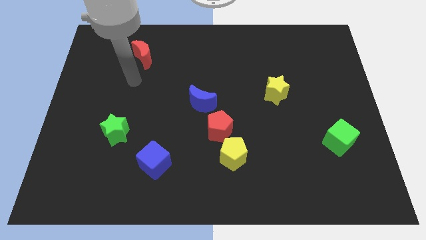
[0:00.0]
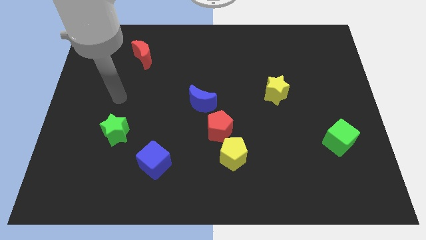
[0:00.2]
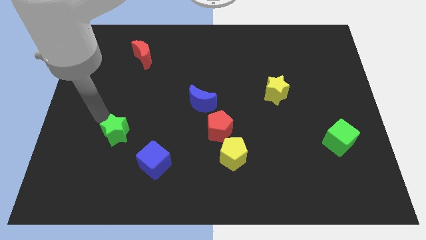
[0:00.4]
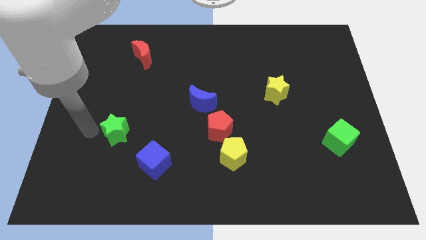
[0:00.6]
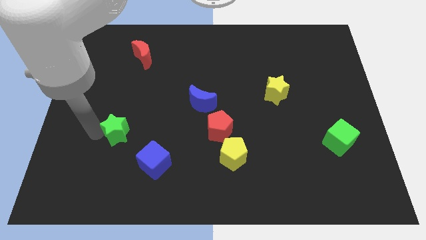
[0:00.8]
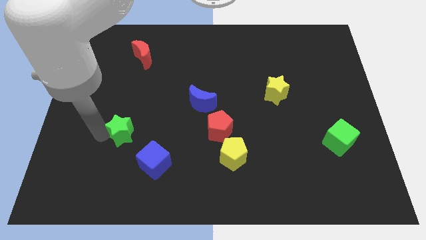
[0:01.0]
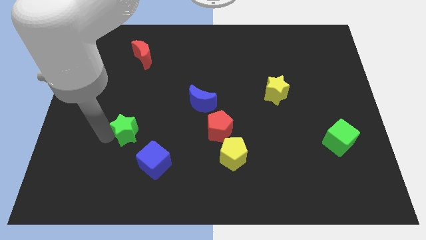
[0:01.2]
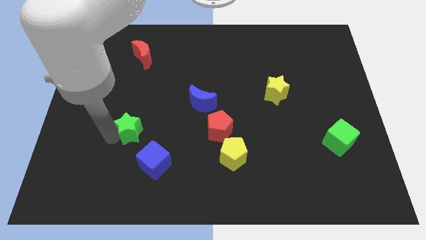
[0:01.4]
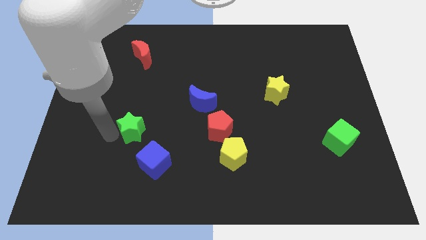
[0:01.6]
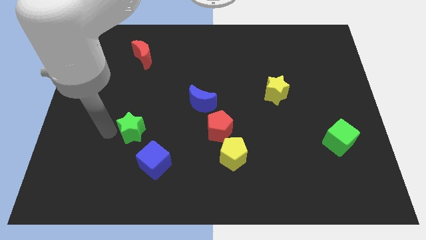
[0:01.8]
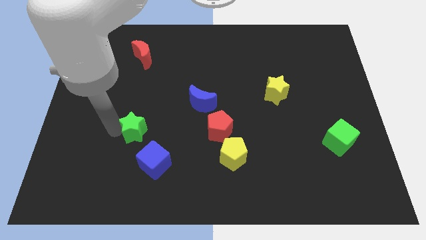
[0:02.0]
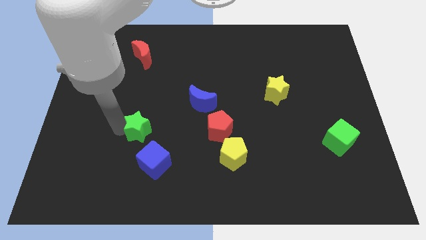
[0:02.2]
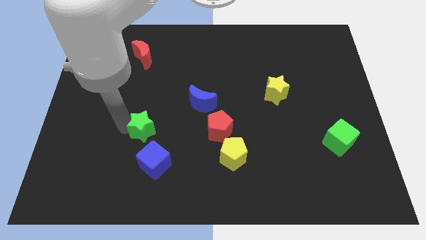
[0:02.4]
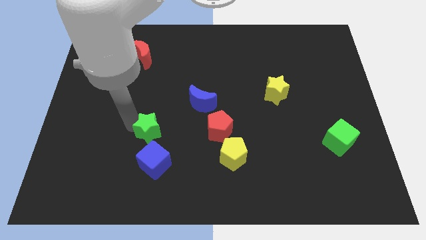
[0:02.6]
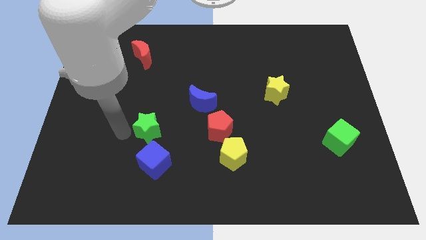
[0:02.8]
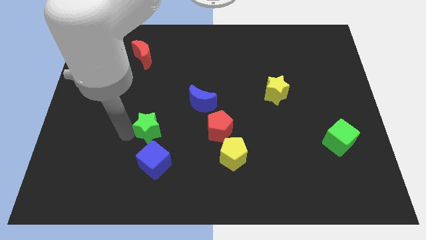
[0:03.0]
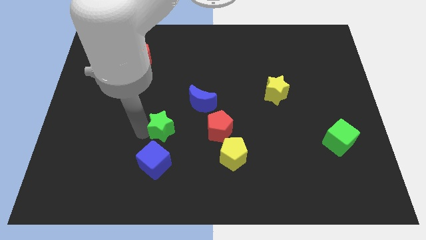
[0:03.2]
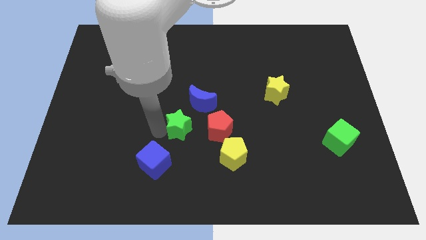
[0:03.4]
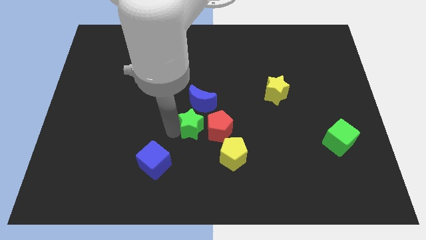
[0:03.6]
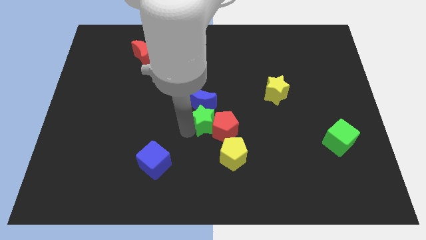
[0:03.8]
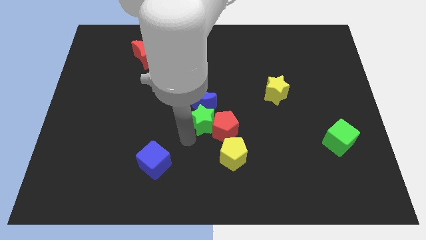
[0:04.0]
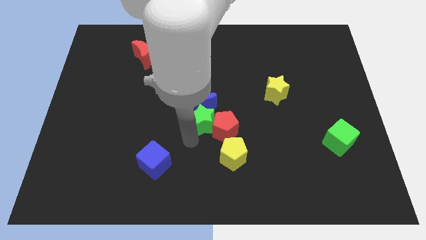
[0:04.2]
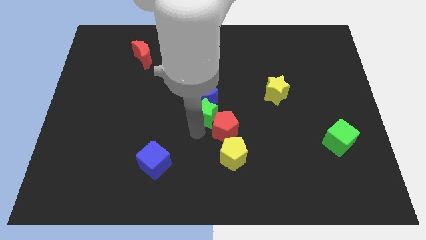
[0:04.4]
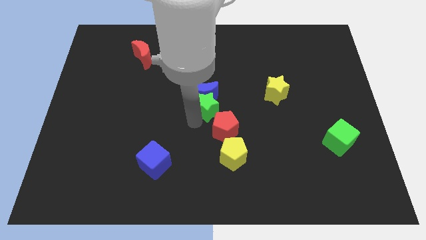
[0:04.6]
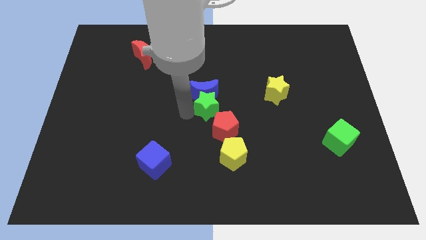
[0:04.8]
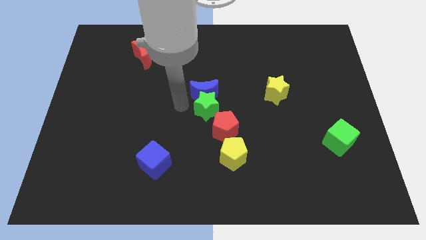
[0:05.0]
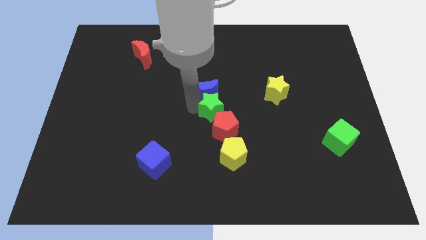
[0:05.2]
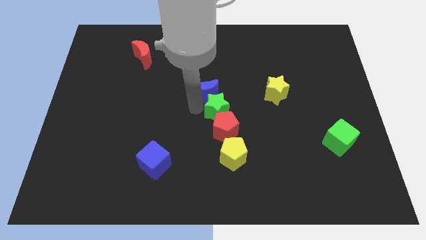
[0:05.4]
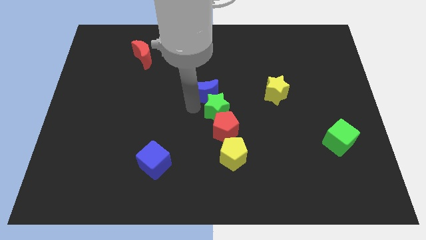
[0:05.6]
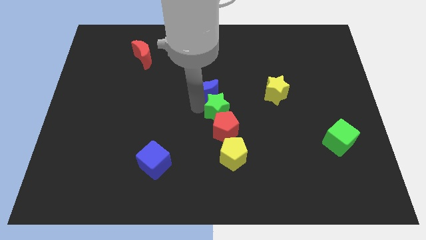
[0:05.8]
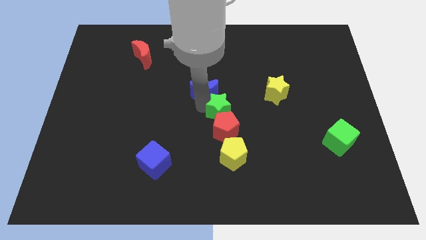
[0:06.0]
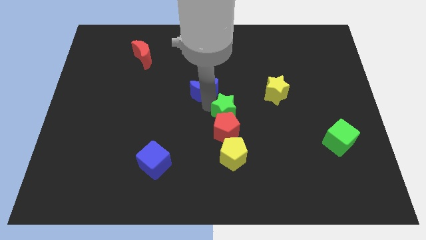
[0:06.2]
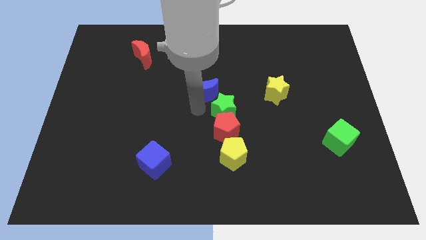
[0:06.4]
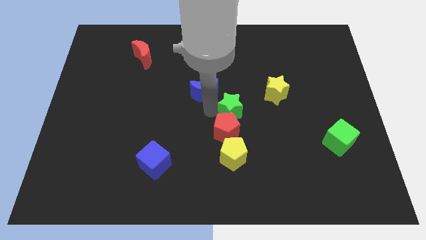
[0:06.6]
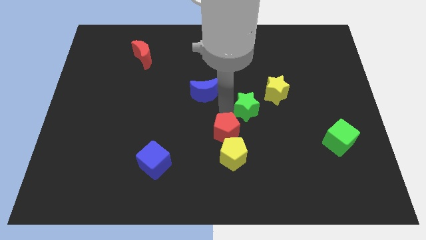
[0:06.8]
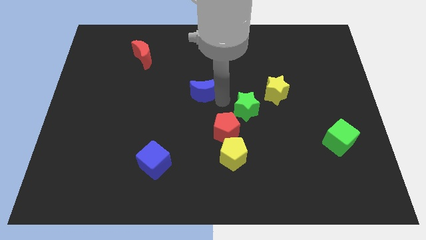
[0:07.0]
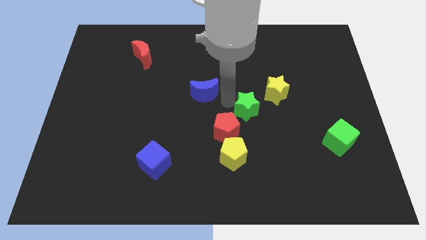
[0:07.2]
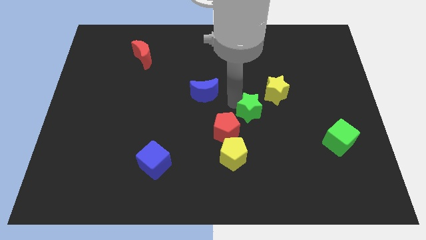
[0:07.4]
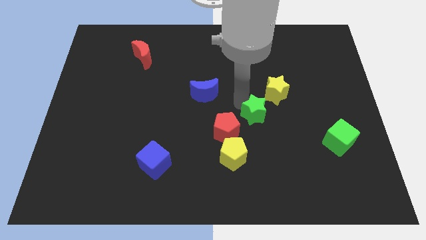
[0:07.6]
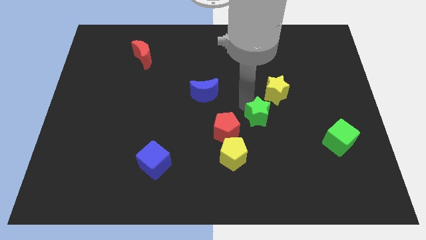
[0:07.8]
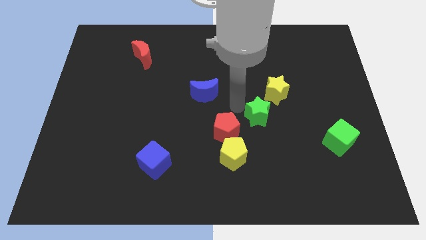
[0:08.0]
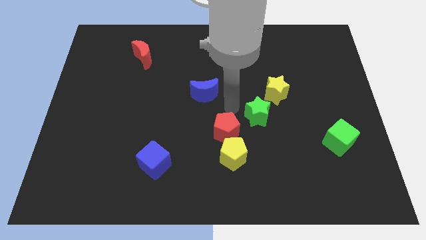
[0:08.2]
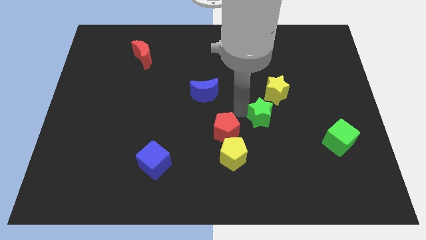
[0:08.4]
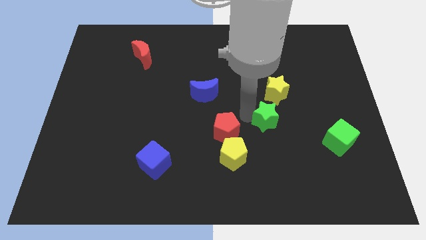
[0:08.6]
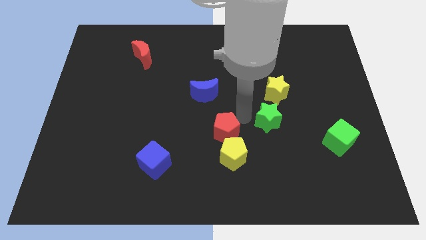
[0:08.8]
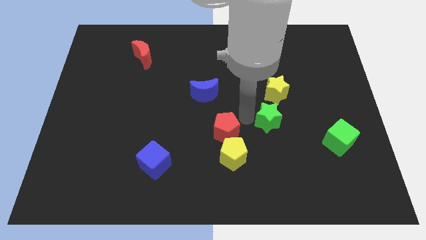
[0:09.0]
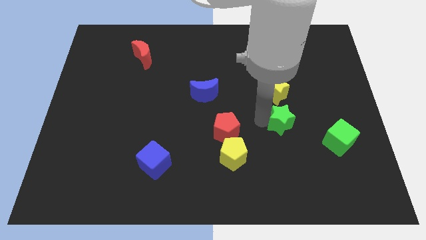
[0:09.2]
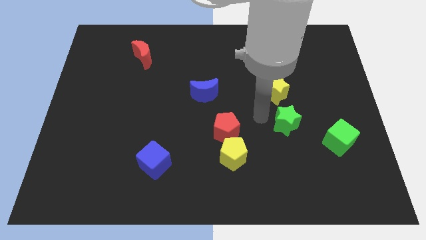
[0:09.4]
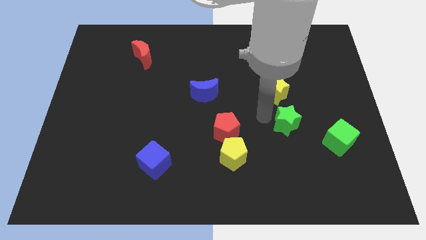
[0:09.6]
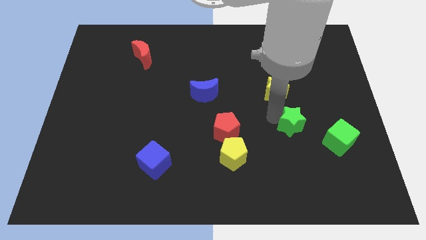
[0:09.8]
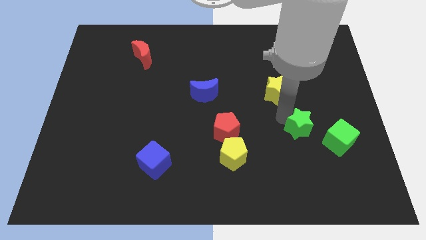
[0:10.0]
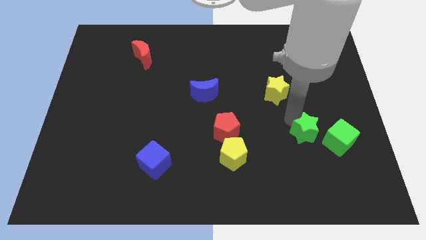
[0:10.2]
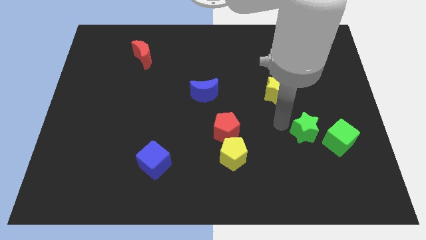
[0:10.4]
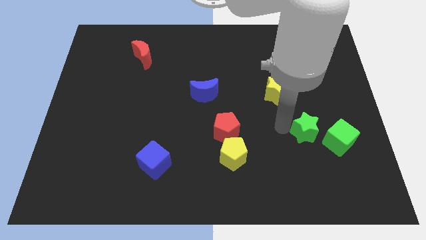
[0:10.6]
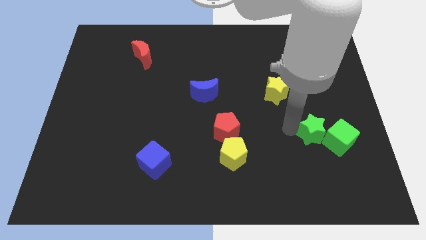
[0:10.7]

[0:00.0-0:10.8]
move the green star towards the green cube

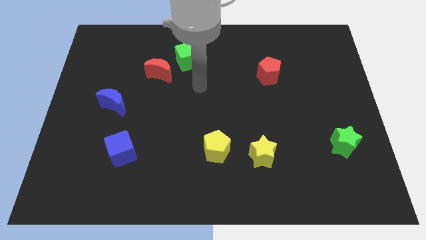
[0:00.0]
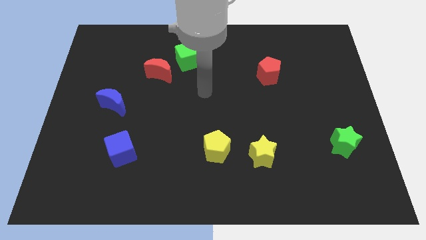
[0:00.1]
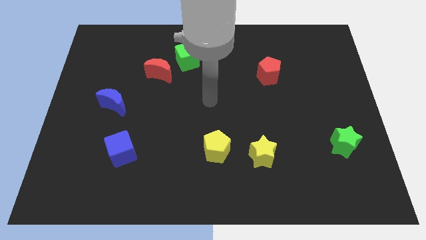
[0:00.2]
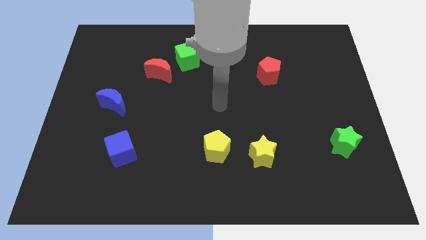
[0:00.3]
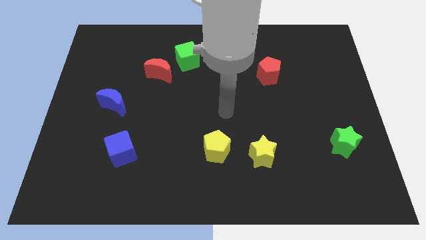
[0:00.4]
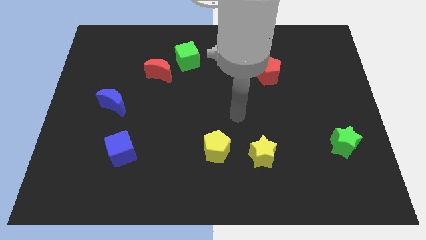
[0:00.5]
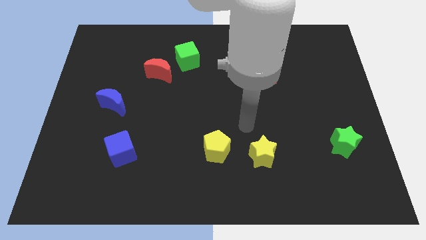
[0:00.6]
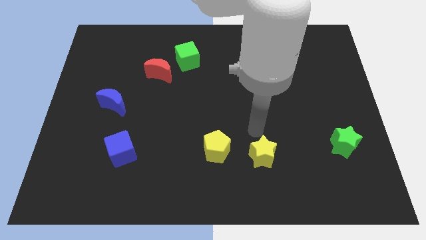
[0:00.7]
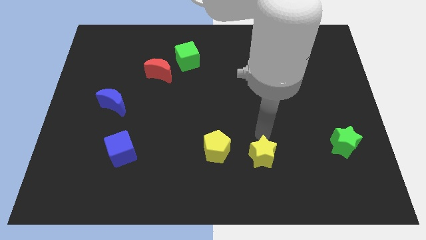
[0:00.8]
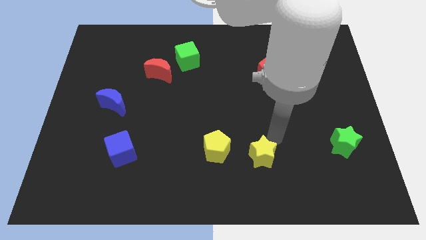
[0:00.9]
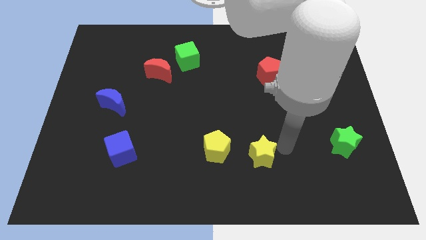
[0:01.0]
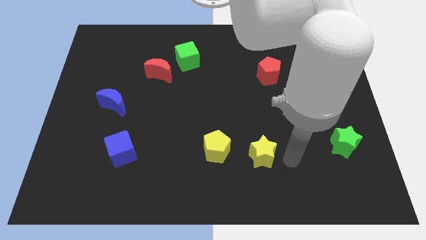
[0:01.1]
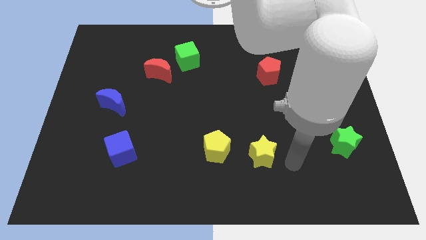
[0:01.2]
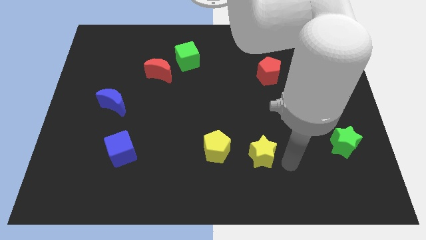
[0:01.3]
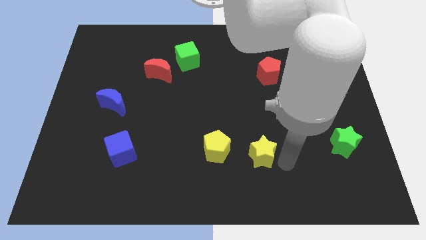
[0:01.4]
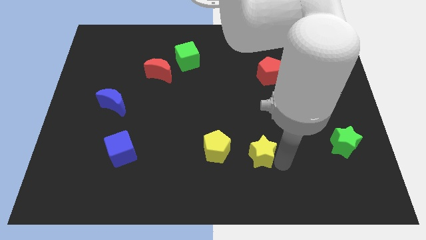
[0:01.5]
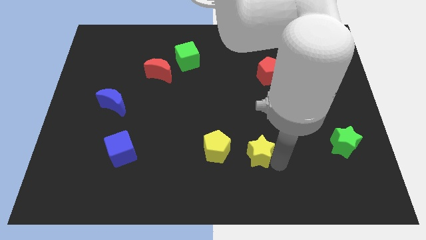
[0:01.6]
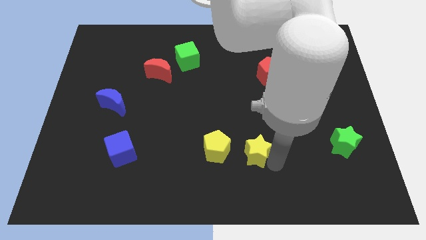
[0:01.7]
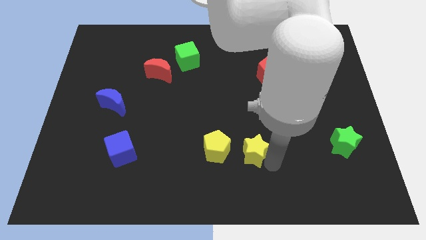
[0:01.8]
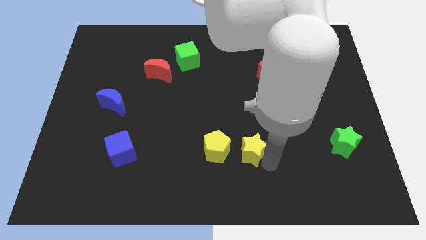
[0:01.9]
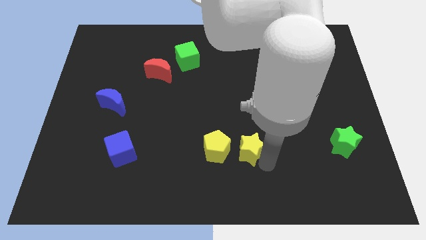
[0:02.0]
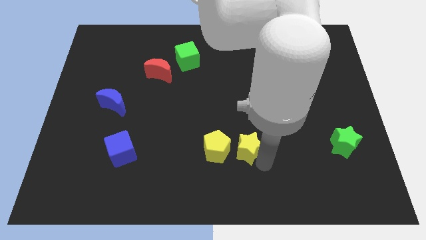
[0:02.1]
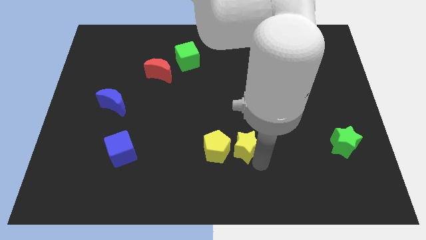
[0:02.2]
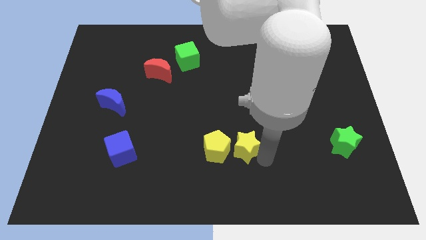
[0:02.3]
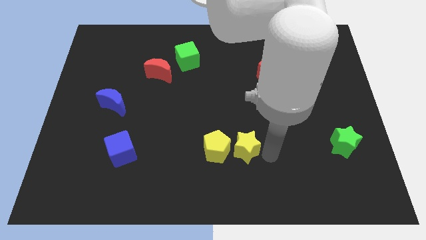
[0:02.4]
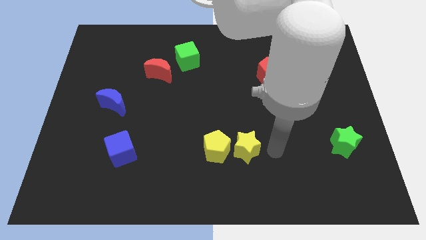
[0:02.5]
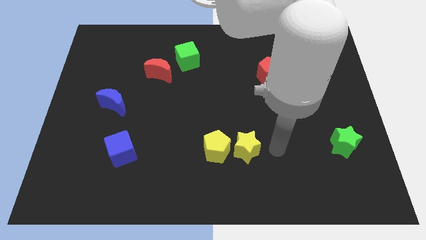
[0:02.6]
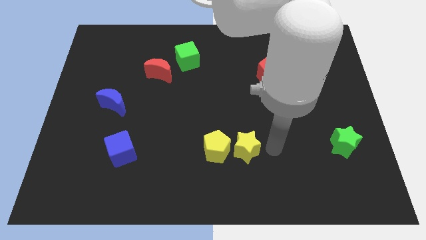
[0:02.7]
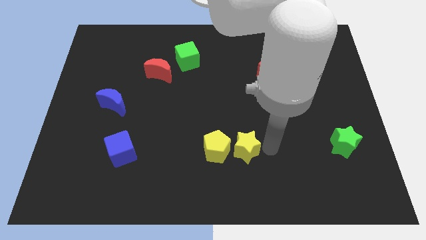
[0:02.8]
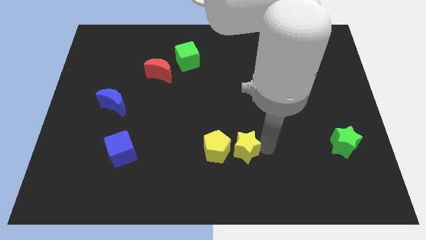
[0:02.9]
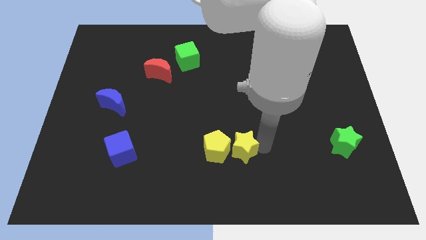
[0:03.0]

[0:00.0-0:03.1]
put the yellow star close to the yellow pentagon
